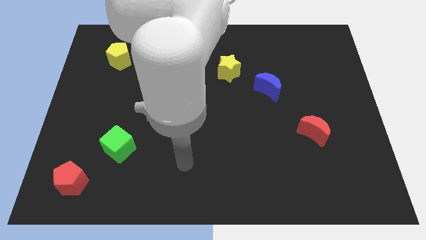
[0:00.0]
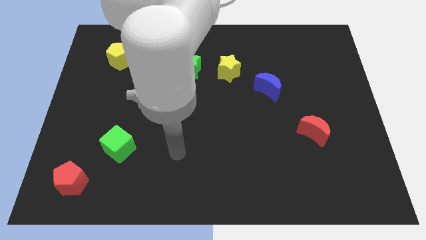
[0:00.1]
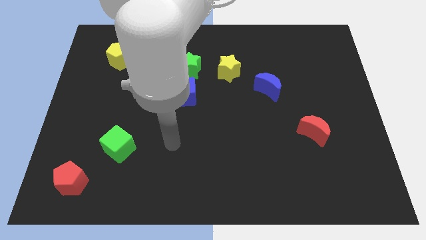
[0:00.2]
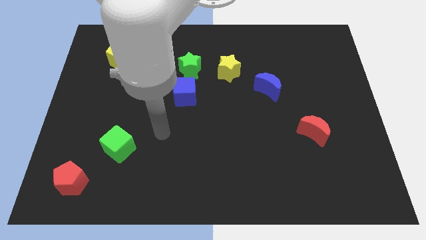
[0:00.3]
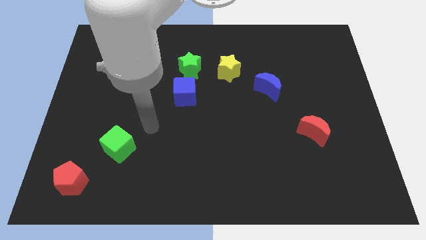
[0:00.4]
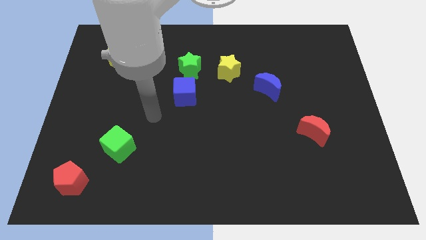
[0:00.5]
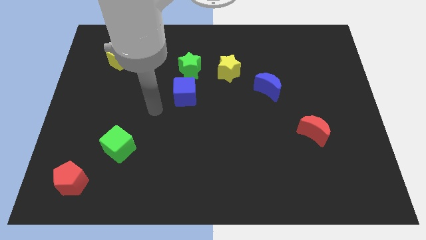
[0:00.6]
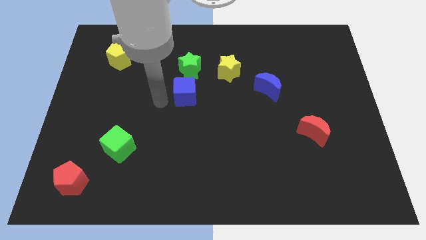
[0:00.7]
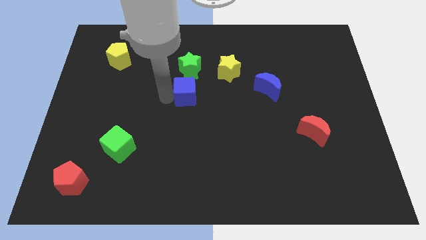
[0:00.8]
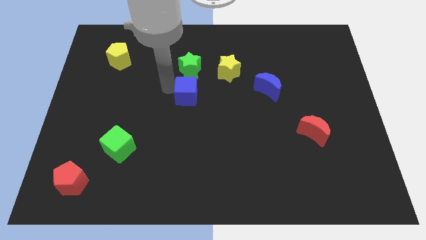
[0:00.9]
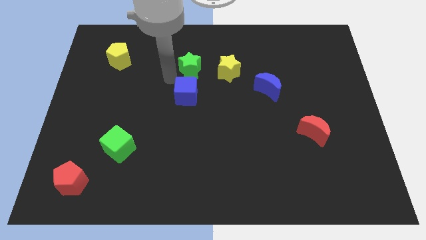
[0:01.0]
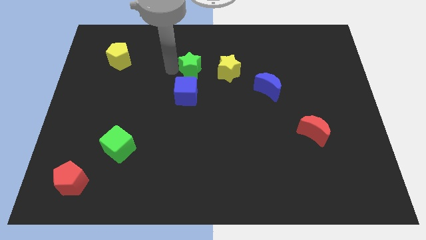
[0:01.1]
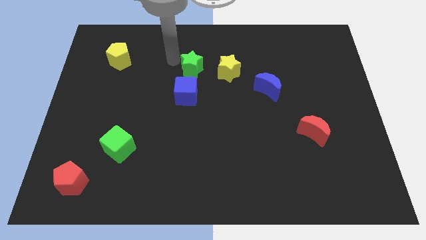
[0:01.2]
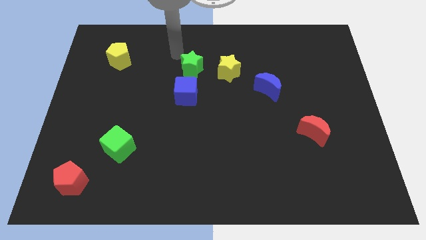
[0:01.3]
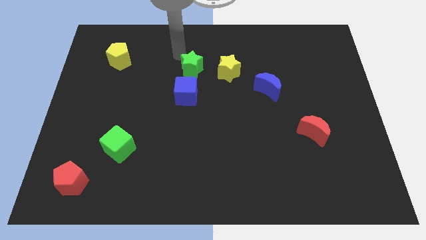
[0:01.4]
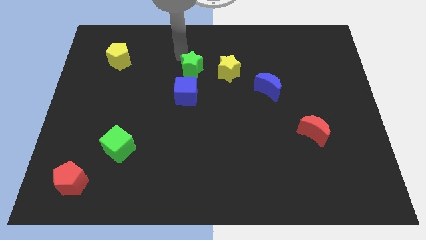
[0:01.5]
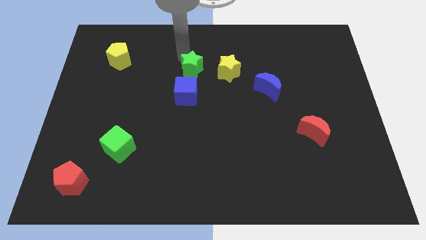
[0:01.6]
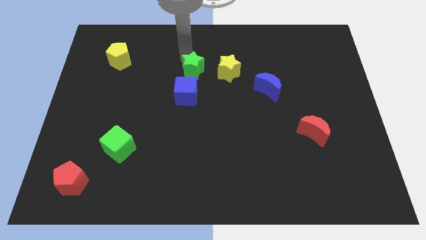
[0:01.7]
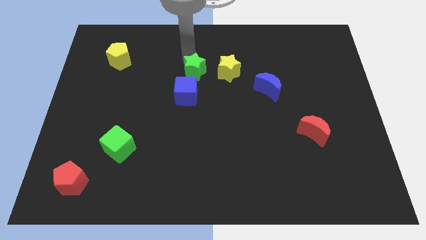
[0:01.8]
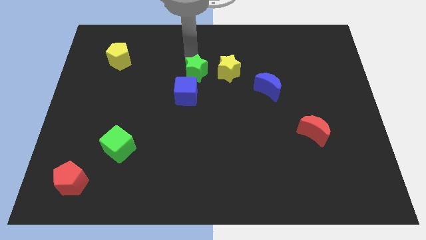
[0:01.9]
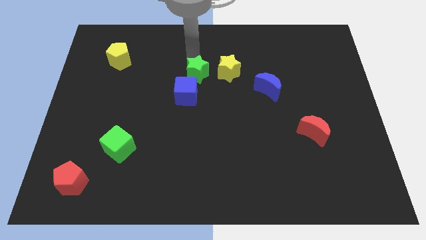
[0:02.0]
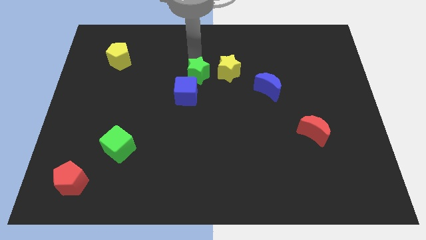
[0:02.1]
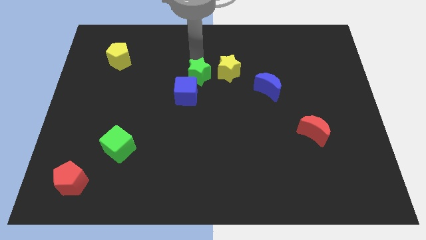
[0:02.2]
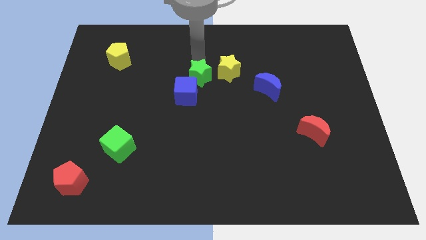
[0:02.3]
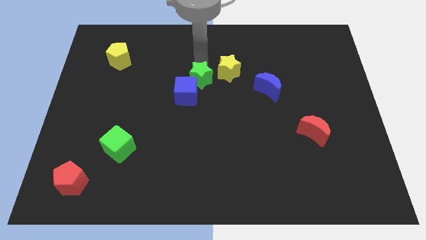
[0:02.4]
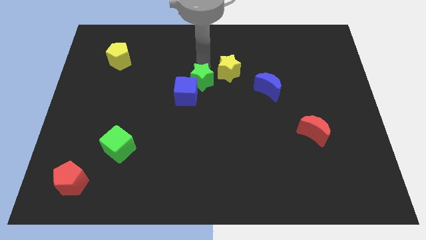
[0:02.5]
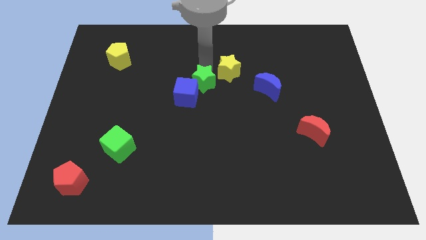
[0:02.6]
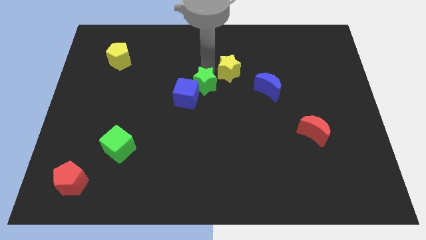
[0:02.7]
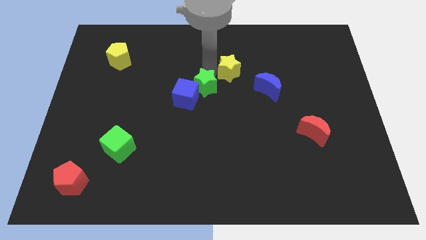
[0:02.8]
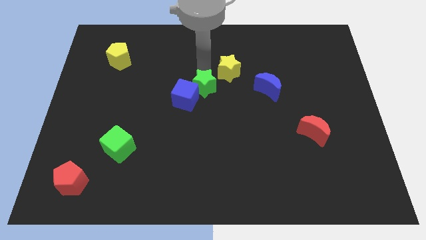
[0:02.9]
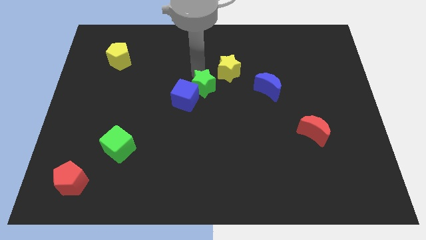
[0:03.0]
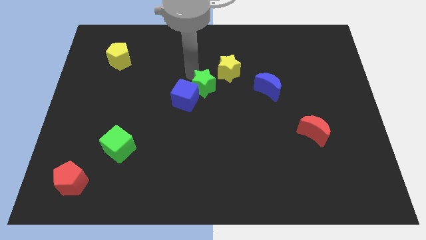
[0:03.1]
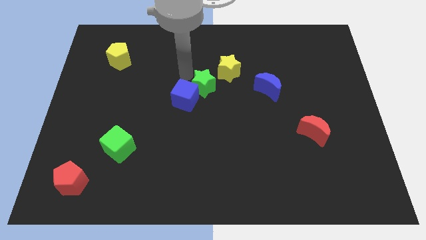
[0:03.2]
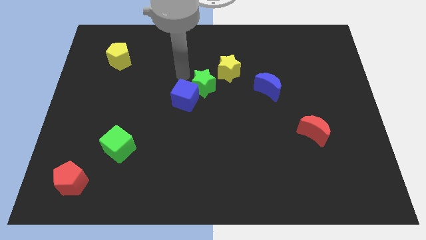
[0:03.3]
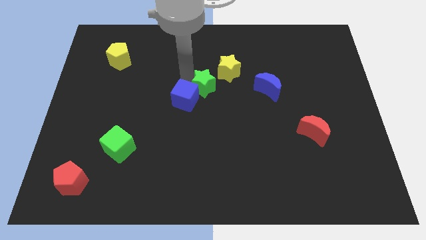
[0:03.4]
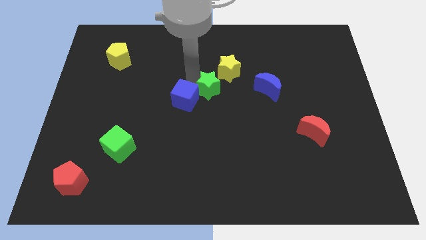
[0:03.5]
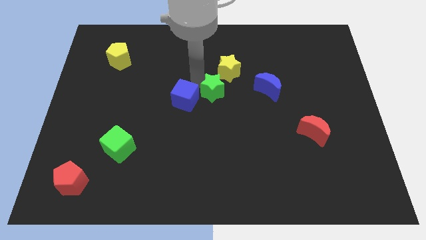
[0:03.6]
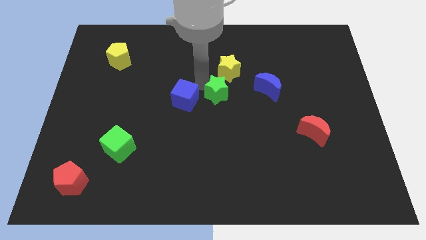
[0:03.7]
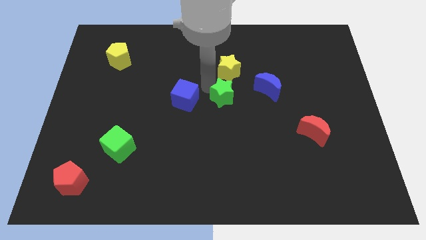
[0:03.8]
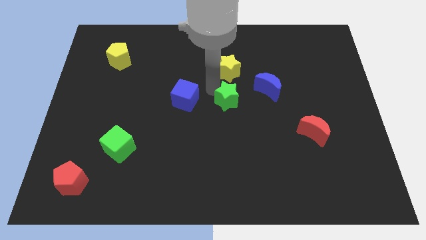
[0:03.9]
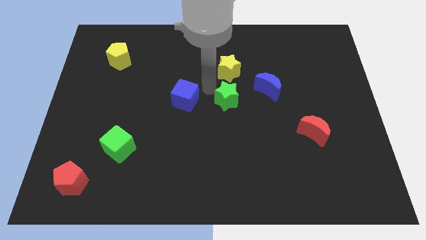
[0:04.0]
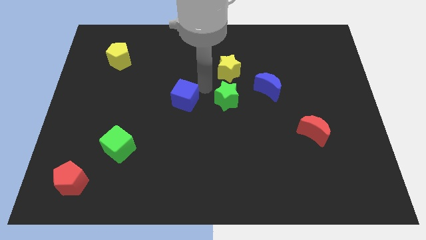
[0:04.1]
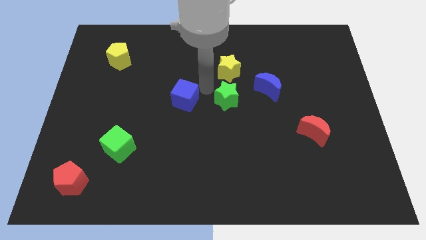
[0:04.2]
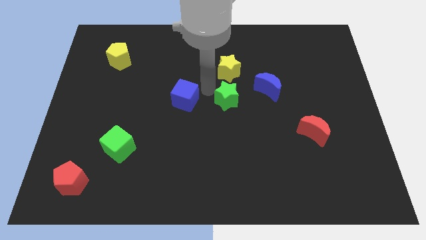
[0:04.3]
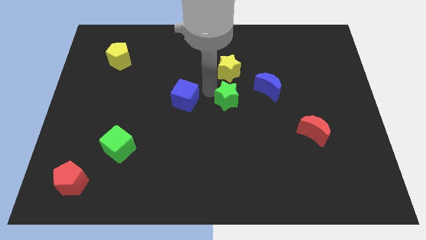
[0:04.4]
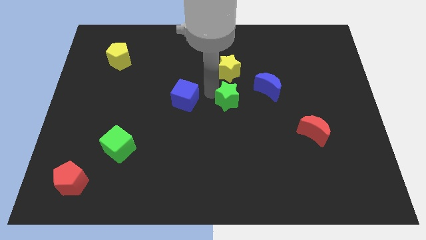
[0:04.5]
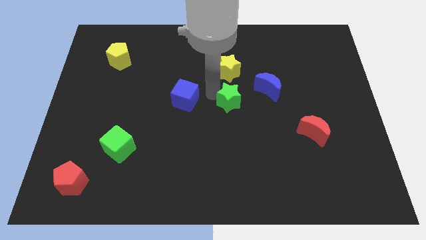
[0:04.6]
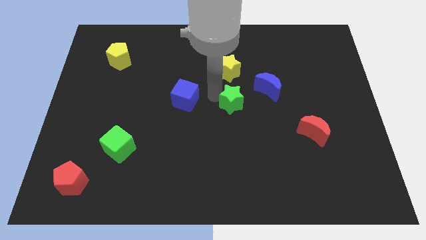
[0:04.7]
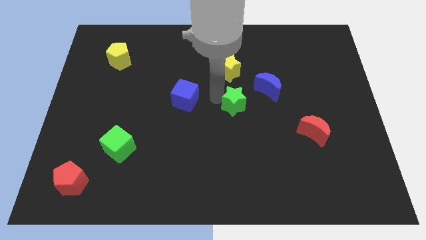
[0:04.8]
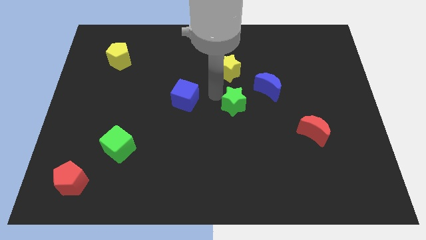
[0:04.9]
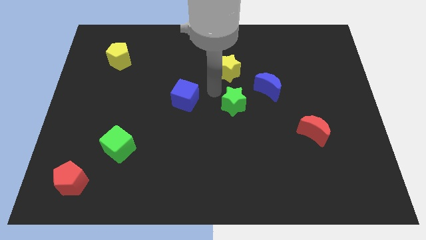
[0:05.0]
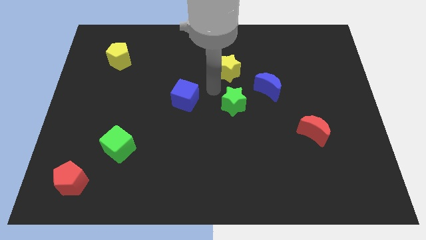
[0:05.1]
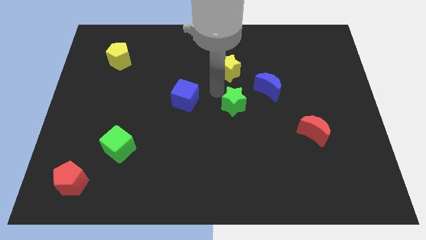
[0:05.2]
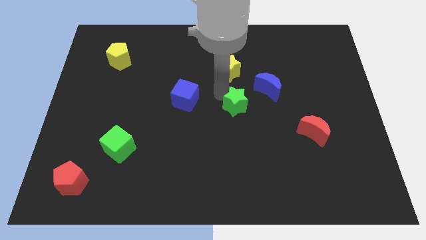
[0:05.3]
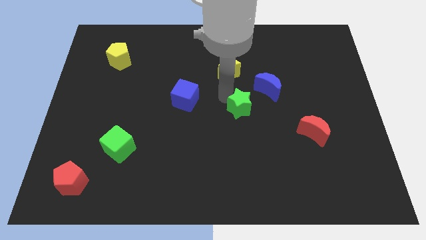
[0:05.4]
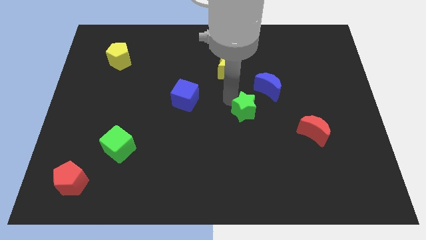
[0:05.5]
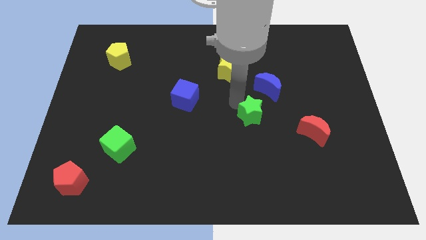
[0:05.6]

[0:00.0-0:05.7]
move the green star diagonally downwards and to the right

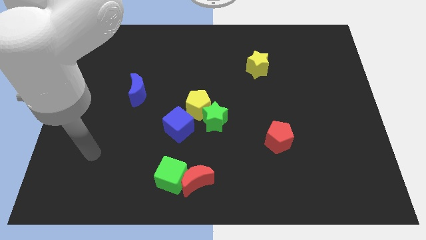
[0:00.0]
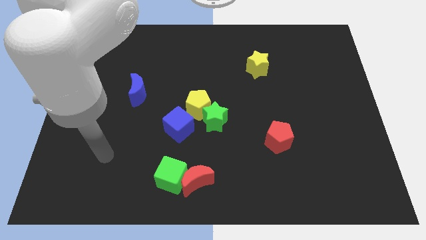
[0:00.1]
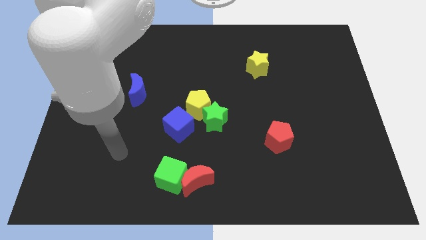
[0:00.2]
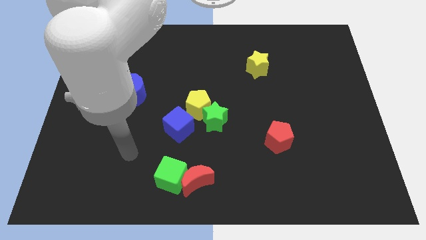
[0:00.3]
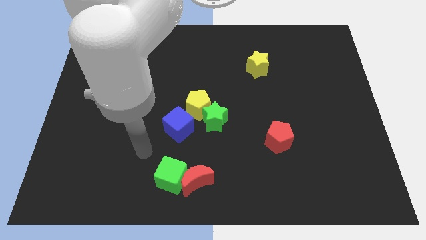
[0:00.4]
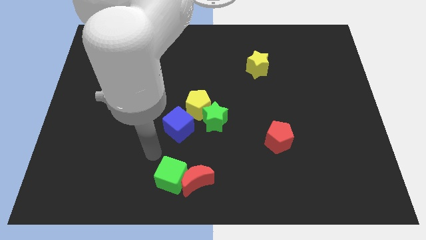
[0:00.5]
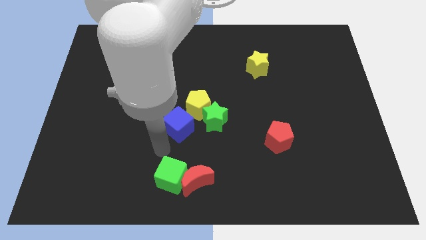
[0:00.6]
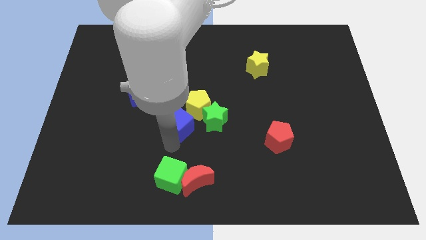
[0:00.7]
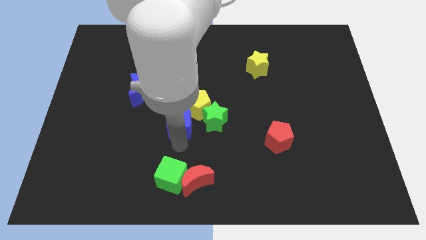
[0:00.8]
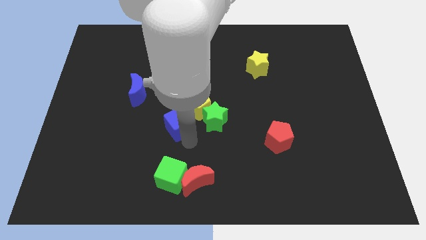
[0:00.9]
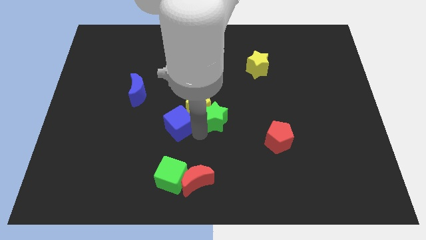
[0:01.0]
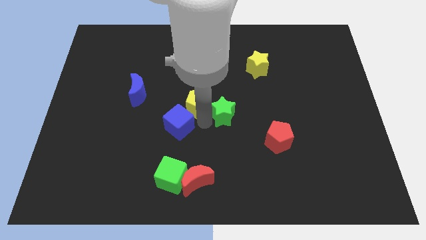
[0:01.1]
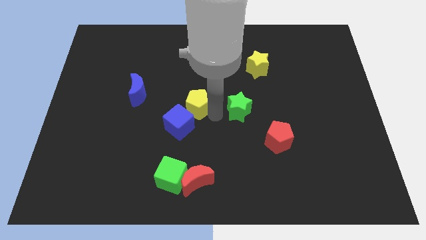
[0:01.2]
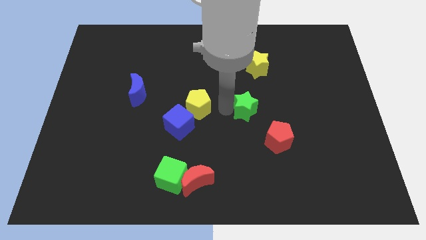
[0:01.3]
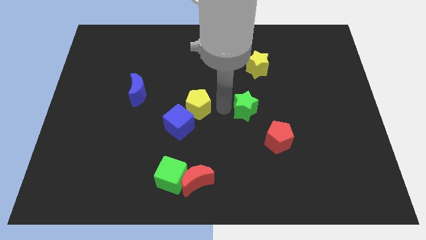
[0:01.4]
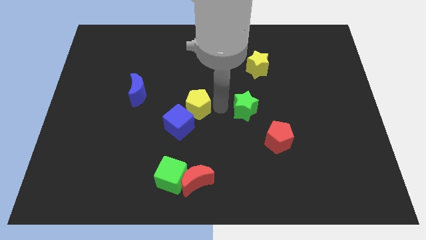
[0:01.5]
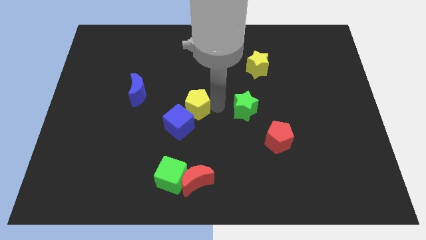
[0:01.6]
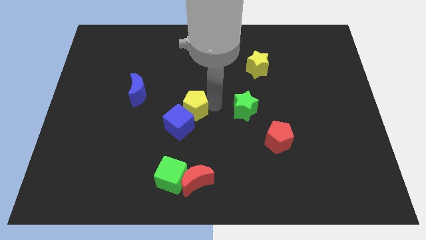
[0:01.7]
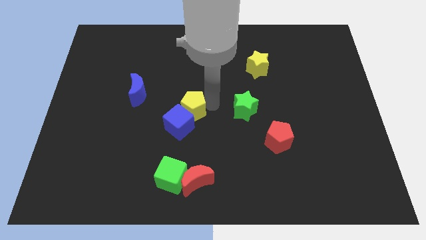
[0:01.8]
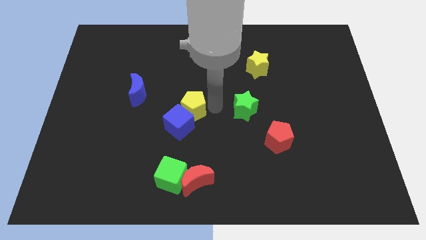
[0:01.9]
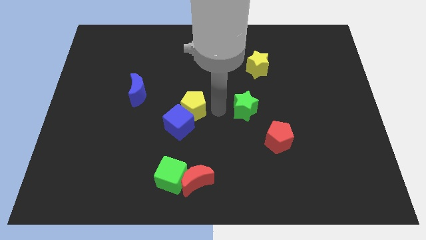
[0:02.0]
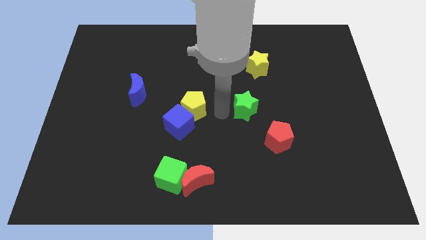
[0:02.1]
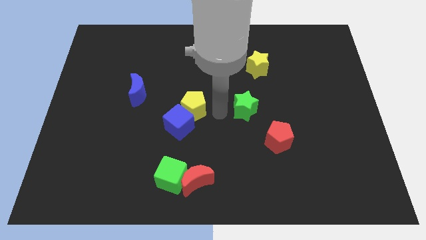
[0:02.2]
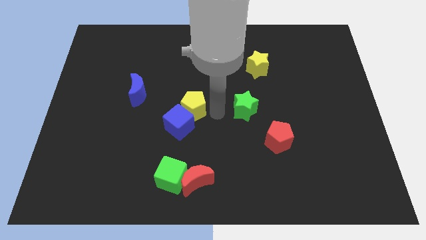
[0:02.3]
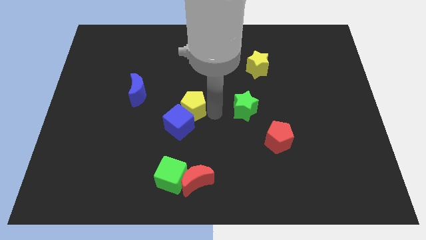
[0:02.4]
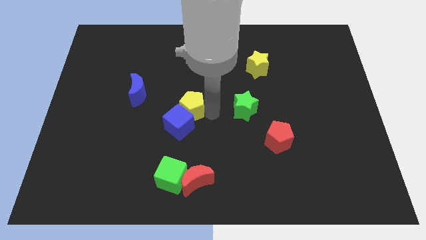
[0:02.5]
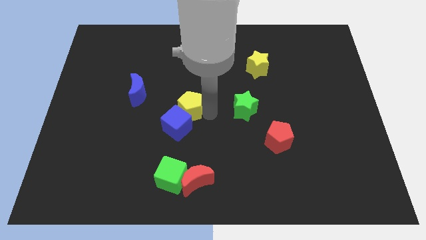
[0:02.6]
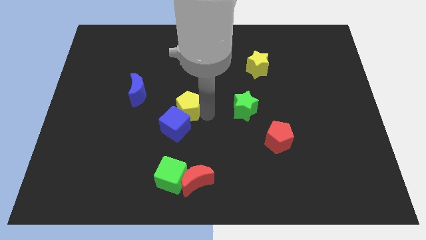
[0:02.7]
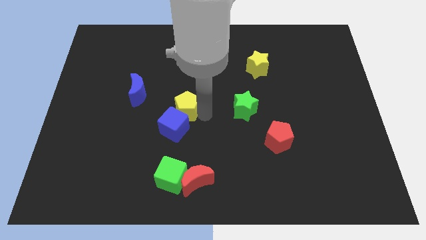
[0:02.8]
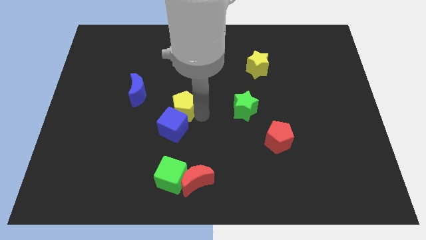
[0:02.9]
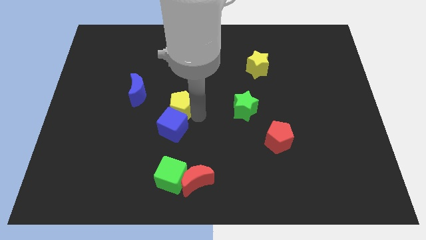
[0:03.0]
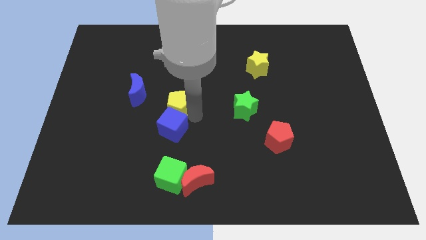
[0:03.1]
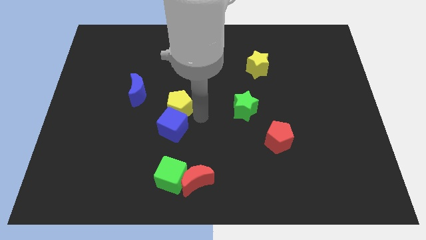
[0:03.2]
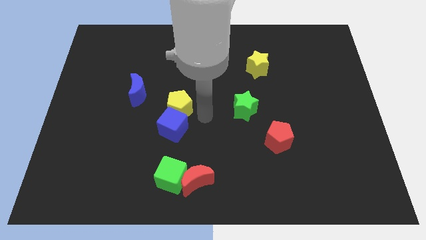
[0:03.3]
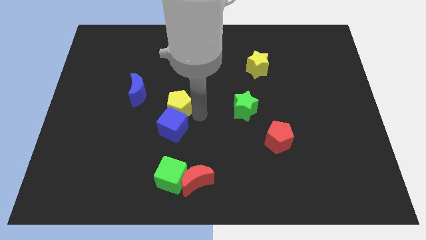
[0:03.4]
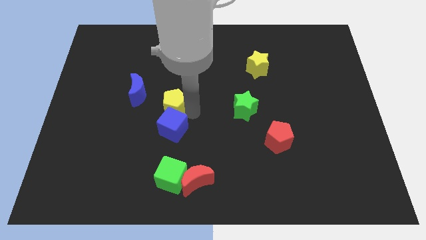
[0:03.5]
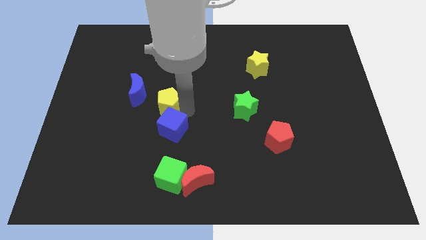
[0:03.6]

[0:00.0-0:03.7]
slightly move the yellow pentagon to the left
